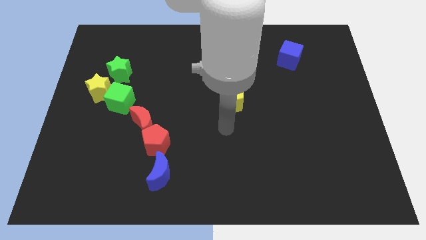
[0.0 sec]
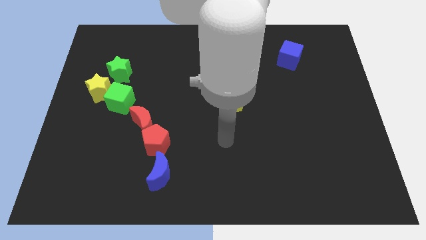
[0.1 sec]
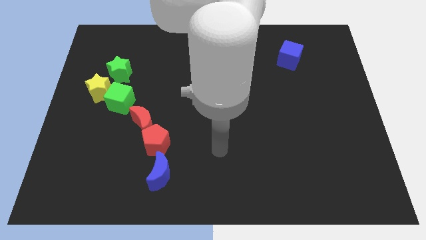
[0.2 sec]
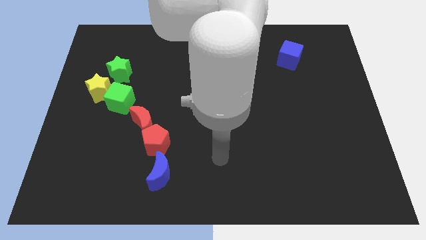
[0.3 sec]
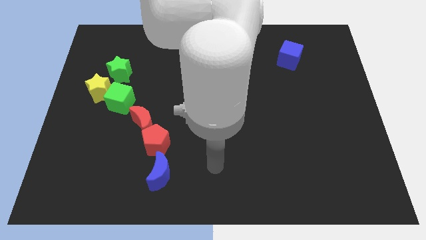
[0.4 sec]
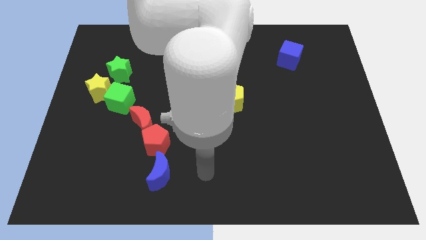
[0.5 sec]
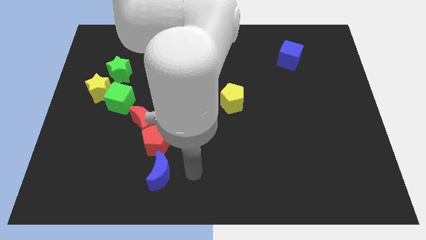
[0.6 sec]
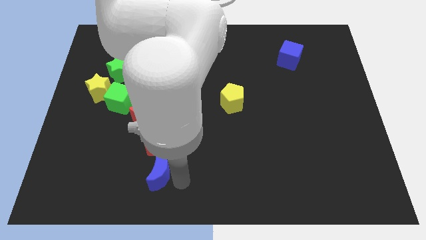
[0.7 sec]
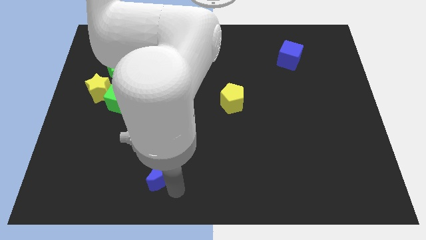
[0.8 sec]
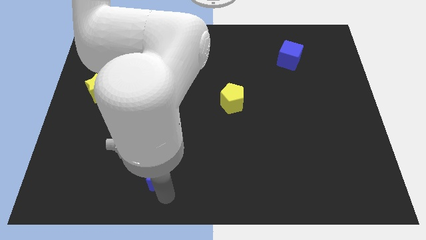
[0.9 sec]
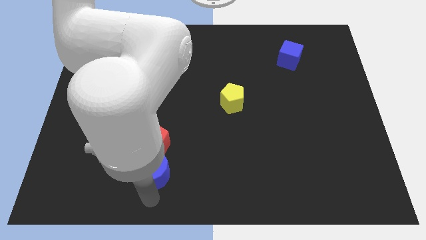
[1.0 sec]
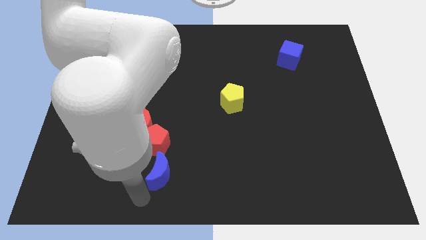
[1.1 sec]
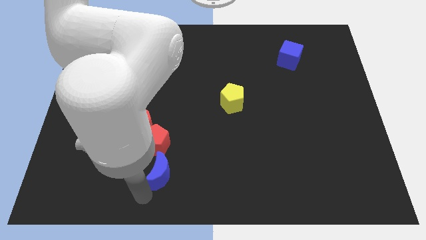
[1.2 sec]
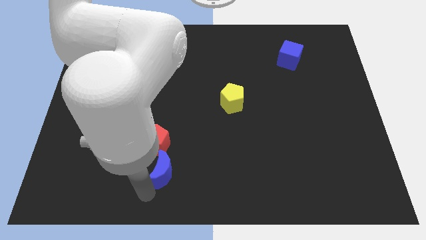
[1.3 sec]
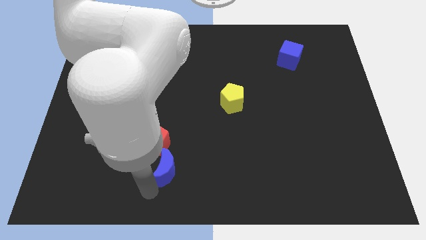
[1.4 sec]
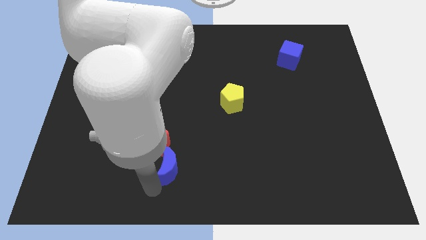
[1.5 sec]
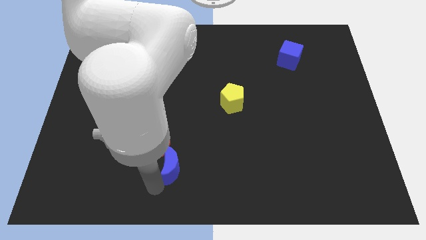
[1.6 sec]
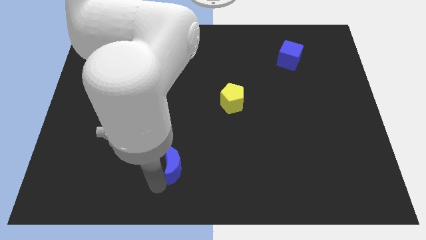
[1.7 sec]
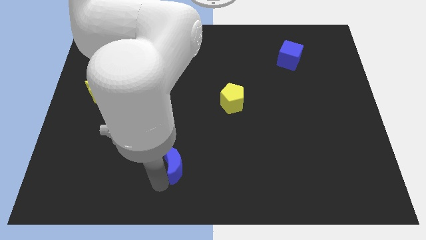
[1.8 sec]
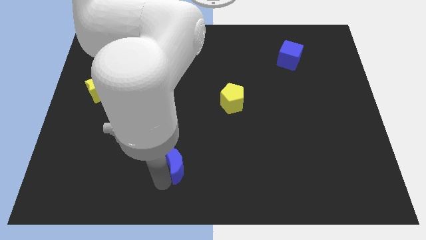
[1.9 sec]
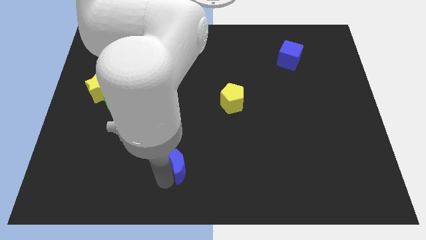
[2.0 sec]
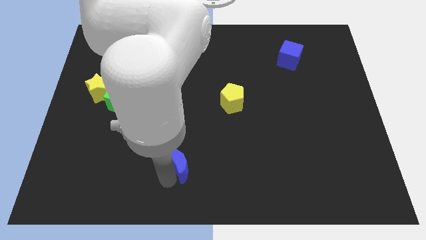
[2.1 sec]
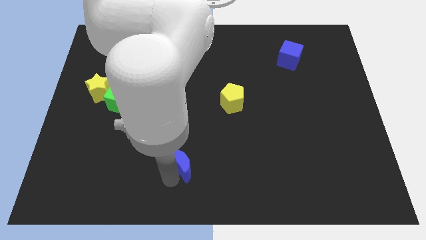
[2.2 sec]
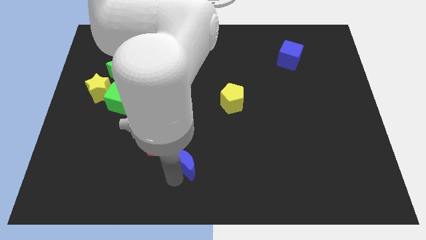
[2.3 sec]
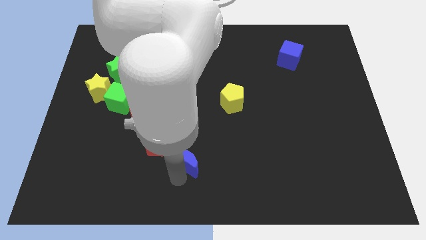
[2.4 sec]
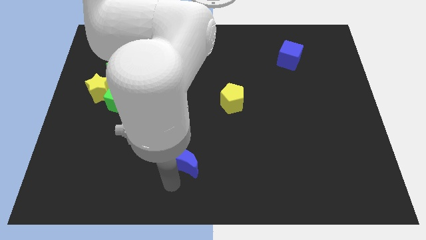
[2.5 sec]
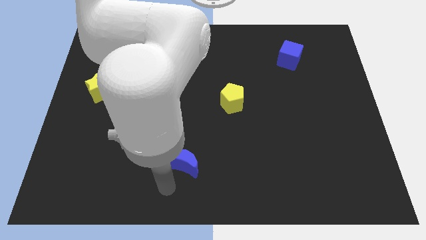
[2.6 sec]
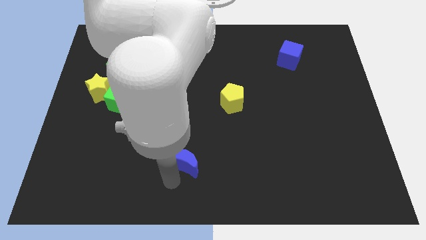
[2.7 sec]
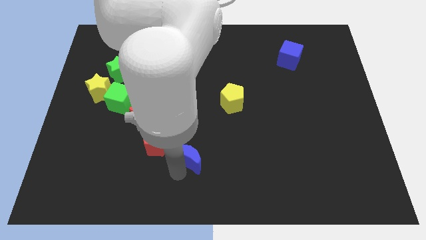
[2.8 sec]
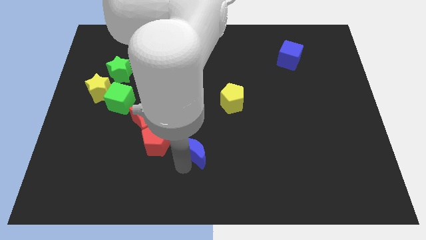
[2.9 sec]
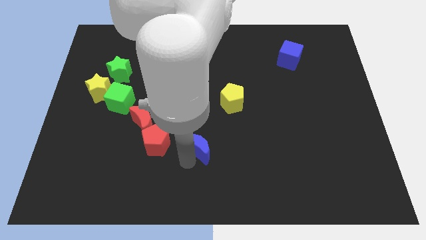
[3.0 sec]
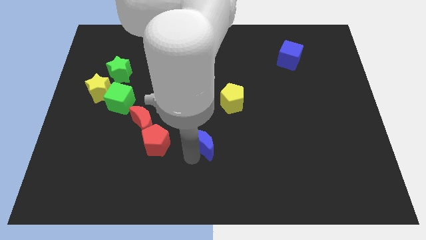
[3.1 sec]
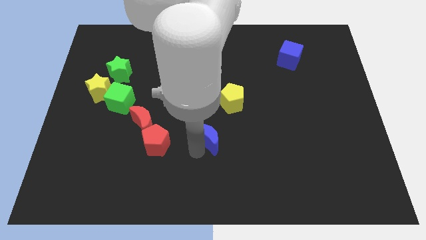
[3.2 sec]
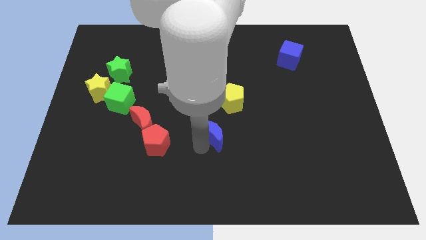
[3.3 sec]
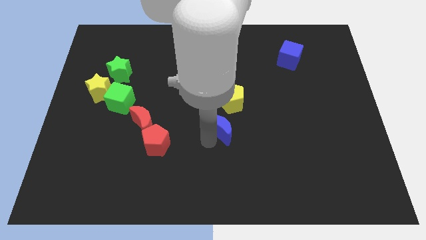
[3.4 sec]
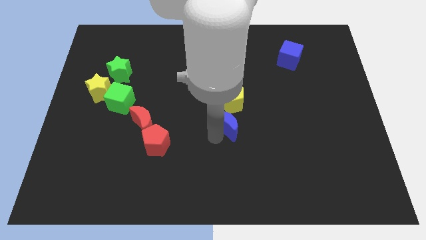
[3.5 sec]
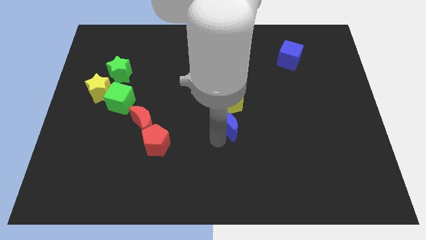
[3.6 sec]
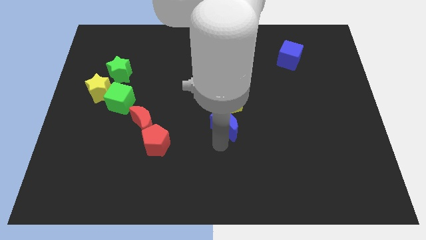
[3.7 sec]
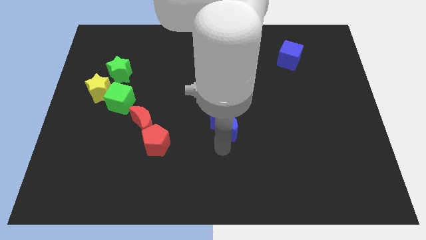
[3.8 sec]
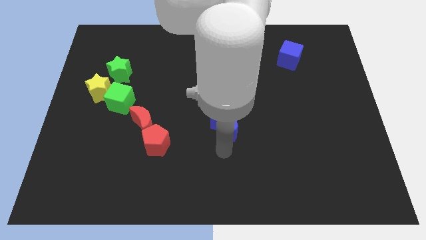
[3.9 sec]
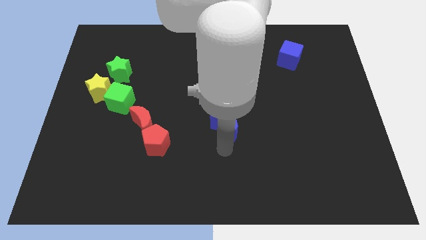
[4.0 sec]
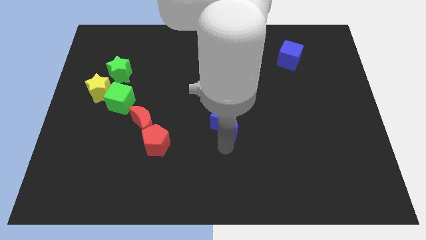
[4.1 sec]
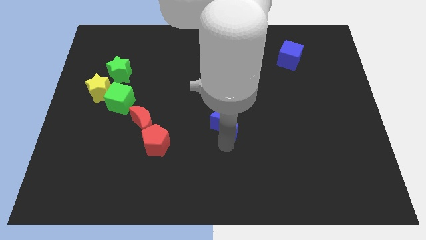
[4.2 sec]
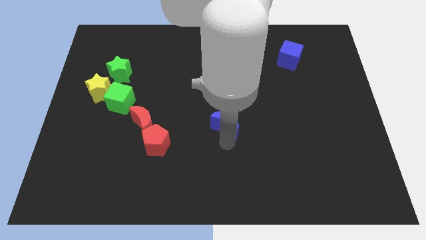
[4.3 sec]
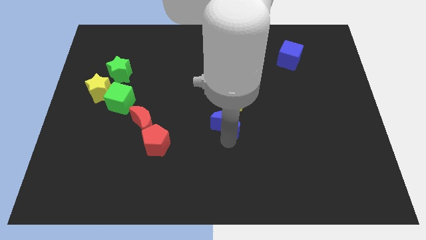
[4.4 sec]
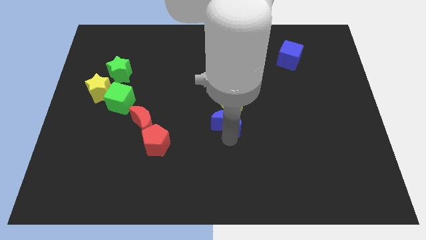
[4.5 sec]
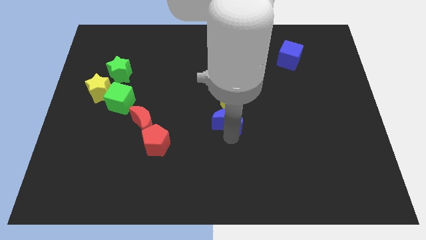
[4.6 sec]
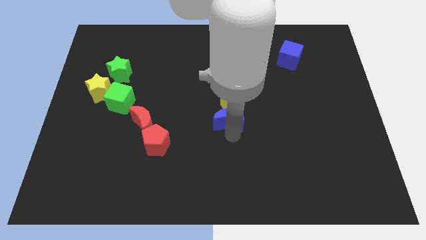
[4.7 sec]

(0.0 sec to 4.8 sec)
push the blue moon towards the yellow pentagon

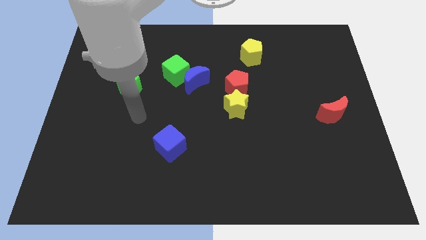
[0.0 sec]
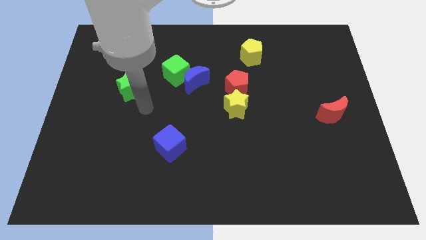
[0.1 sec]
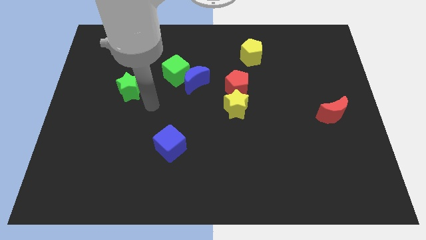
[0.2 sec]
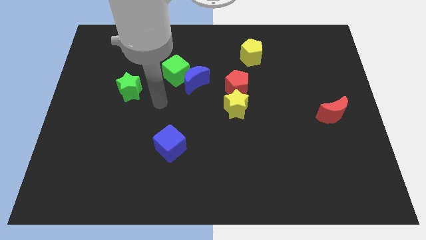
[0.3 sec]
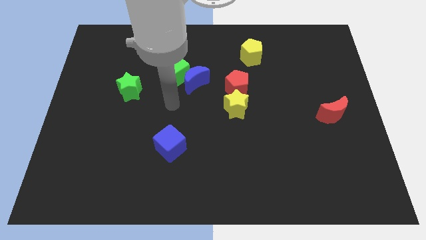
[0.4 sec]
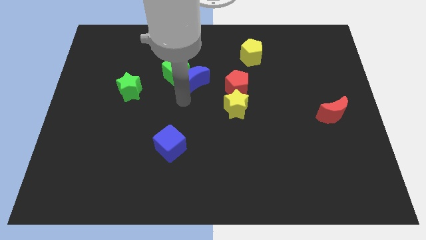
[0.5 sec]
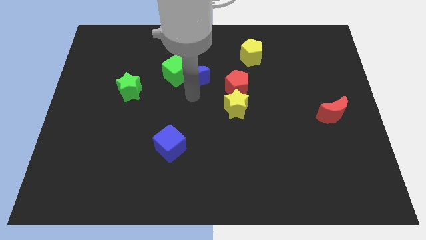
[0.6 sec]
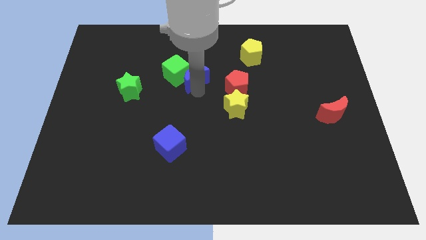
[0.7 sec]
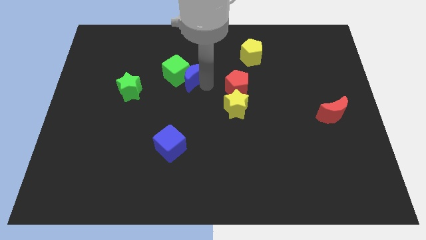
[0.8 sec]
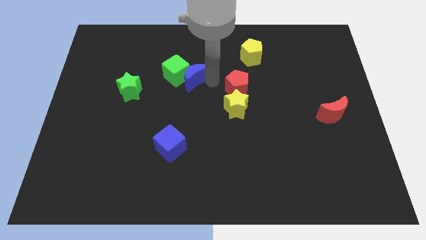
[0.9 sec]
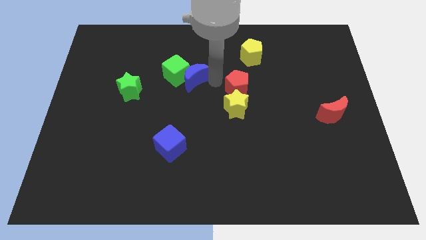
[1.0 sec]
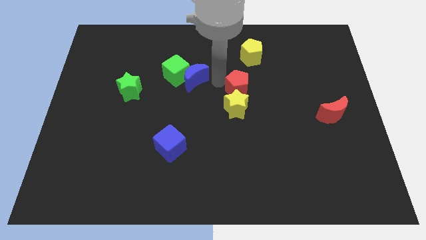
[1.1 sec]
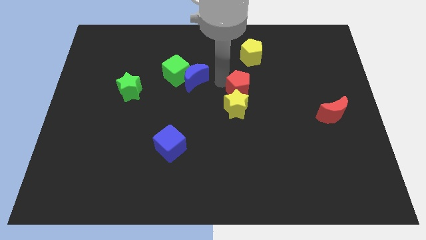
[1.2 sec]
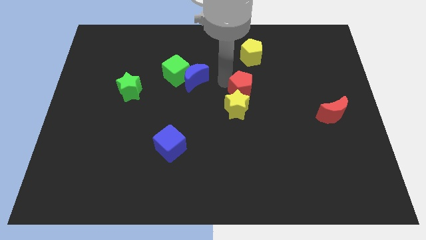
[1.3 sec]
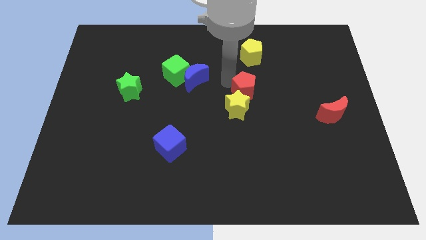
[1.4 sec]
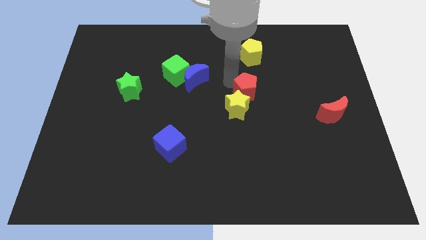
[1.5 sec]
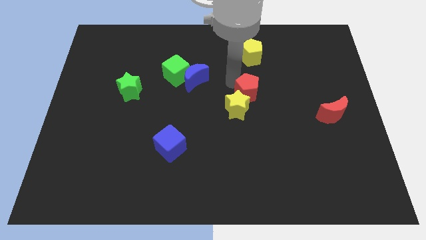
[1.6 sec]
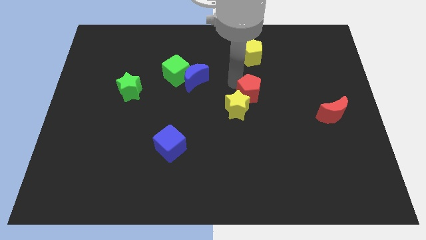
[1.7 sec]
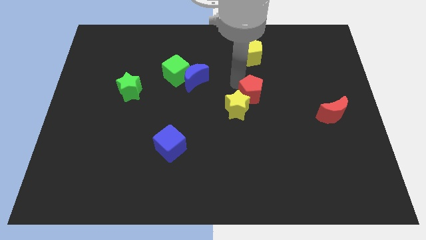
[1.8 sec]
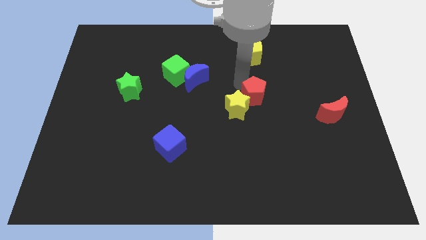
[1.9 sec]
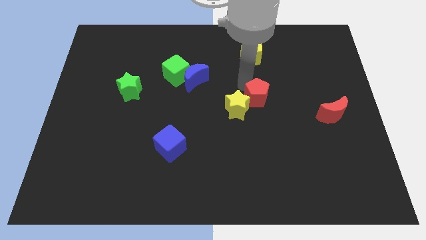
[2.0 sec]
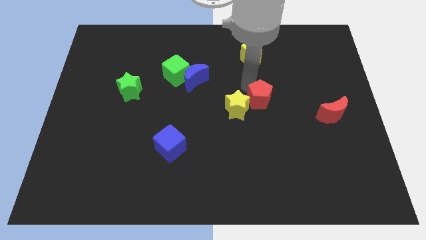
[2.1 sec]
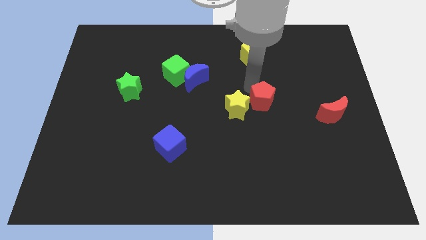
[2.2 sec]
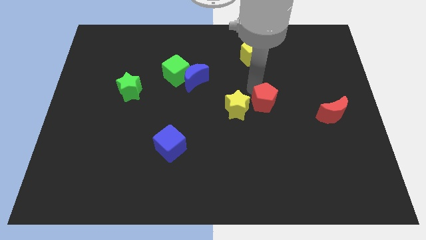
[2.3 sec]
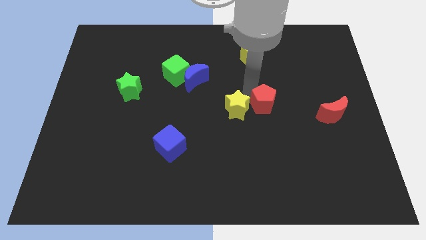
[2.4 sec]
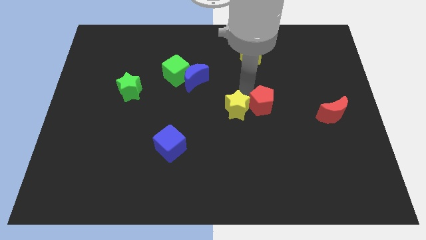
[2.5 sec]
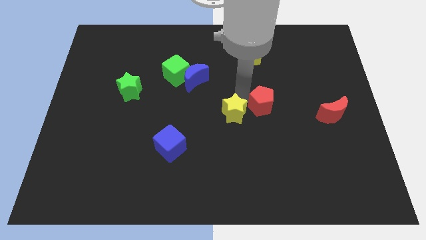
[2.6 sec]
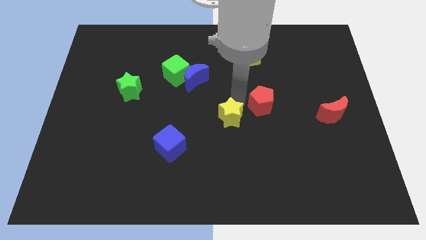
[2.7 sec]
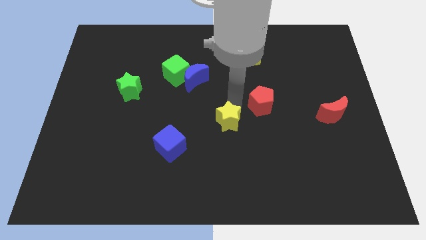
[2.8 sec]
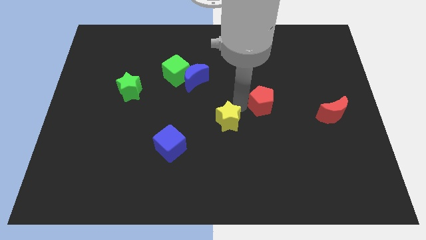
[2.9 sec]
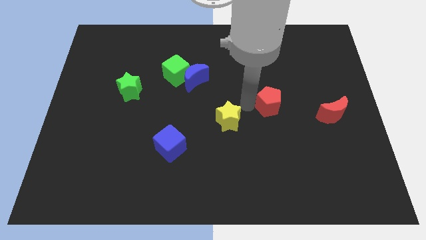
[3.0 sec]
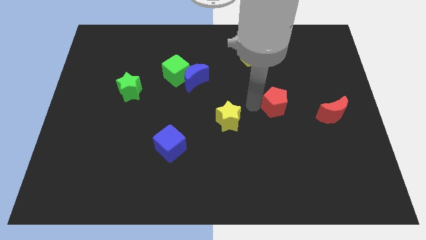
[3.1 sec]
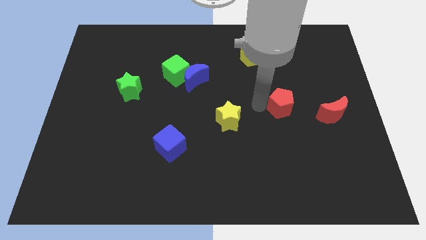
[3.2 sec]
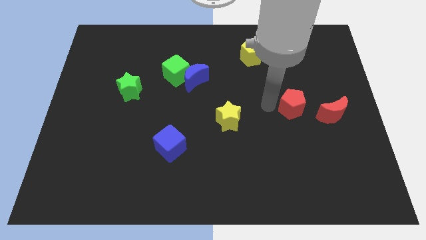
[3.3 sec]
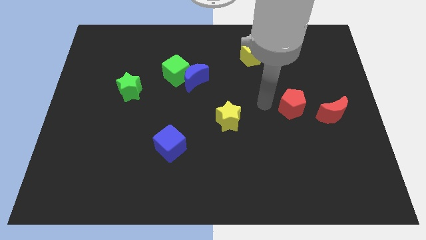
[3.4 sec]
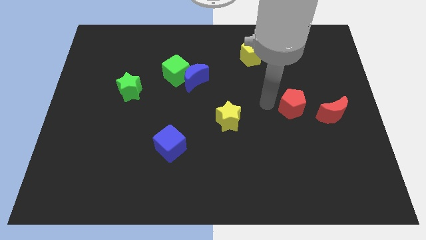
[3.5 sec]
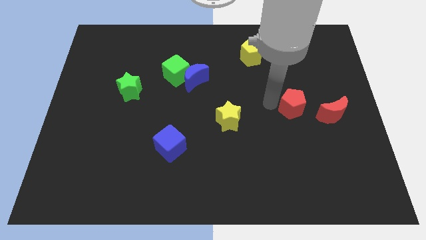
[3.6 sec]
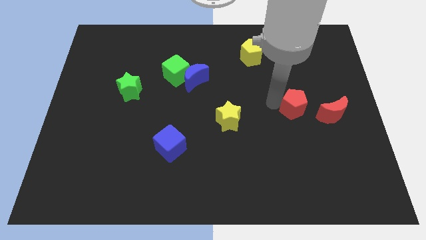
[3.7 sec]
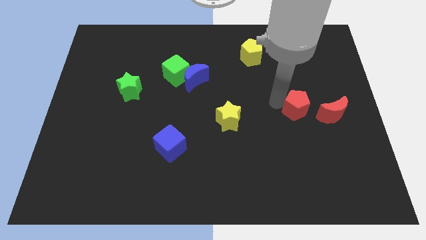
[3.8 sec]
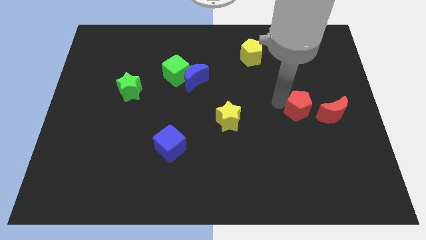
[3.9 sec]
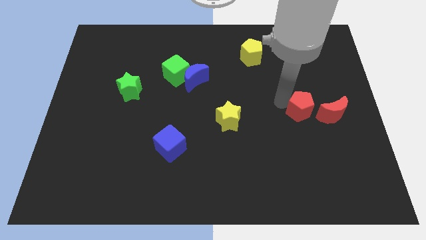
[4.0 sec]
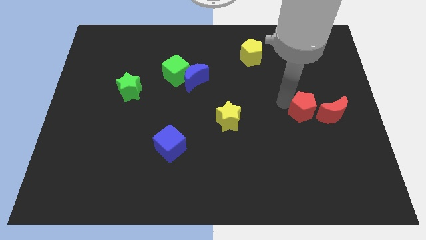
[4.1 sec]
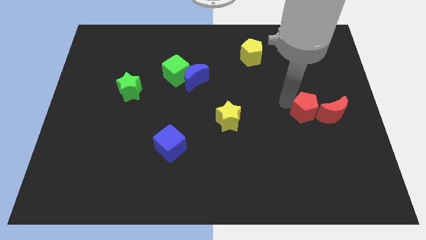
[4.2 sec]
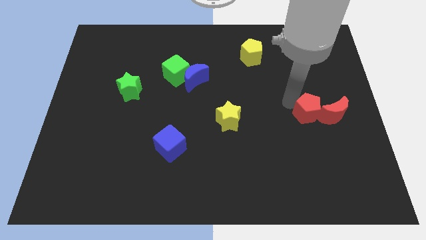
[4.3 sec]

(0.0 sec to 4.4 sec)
slide the red pentagon to the red moon
